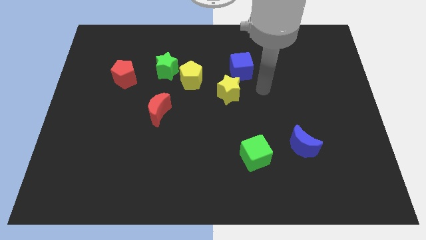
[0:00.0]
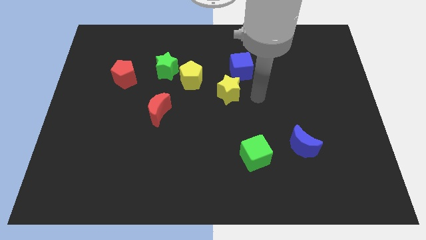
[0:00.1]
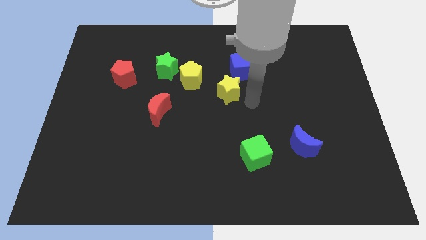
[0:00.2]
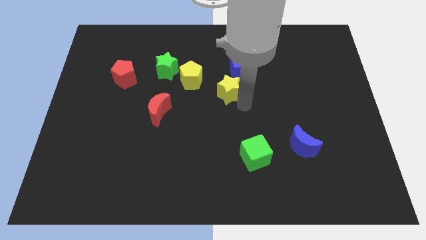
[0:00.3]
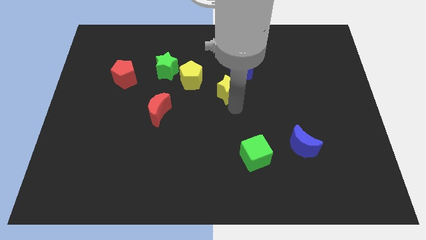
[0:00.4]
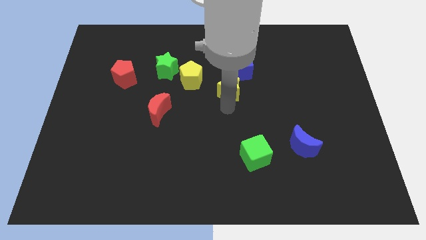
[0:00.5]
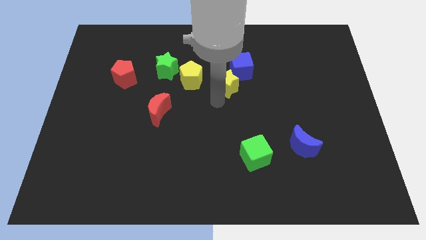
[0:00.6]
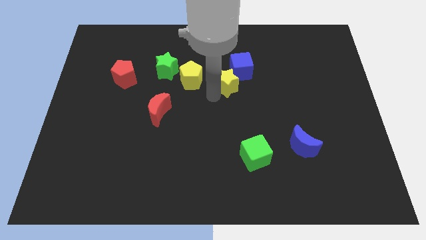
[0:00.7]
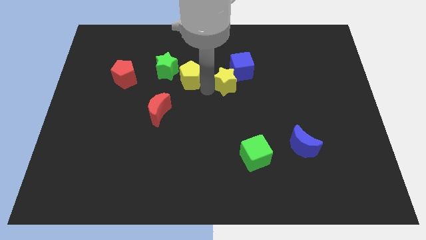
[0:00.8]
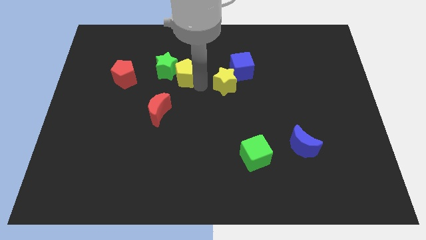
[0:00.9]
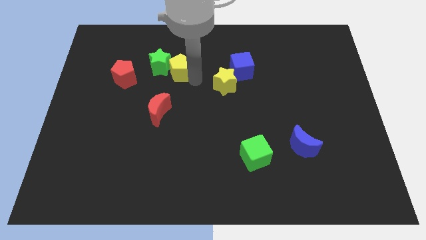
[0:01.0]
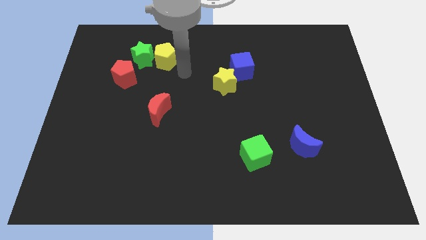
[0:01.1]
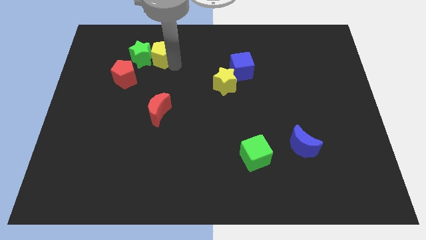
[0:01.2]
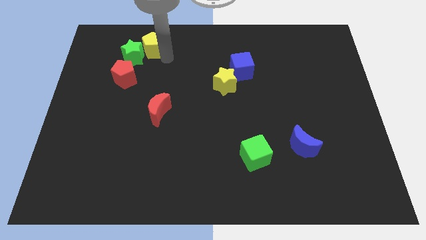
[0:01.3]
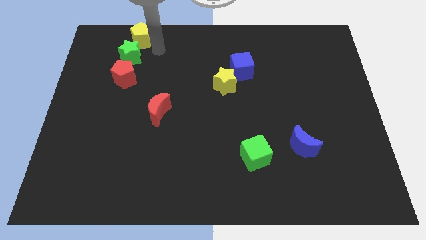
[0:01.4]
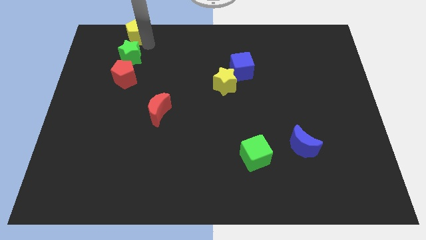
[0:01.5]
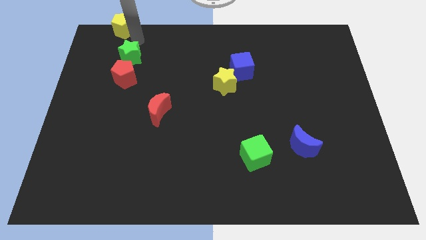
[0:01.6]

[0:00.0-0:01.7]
move the green star away from the yellow pentagon

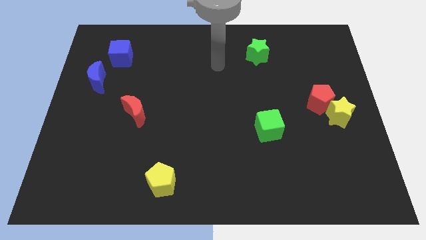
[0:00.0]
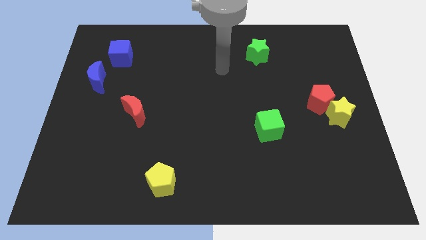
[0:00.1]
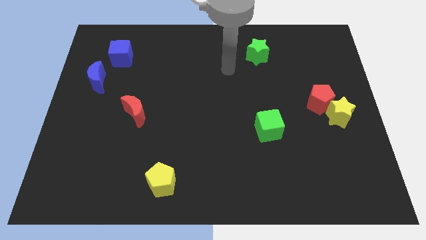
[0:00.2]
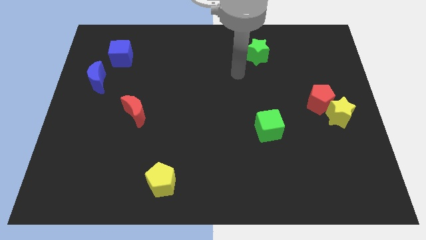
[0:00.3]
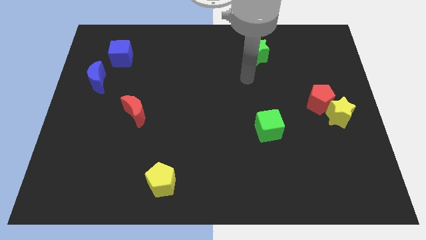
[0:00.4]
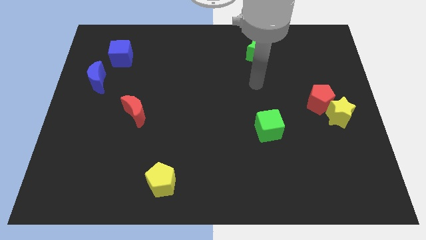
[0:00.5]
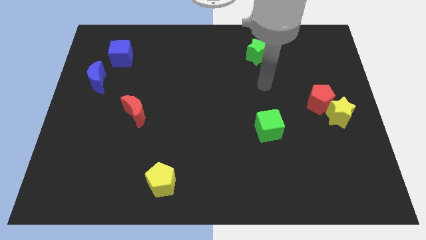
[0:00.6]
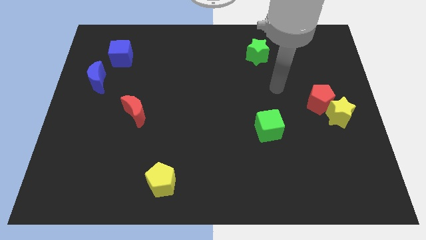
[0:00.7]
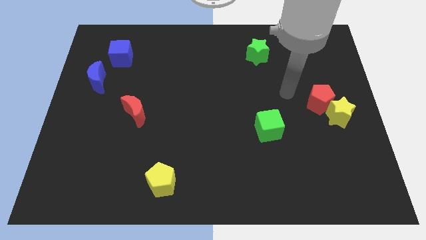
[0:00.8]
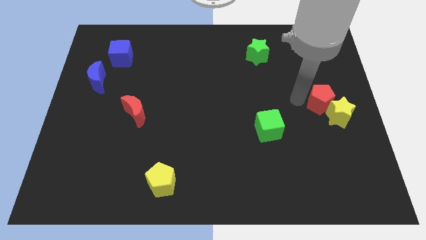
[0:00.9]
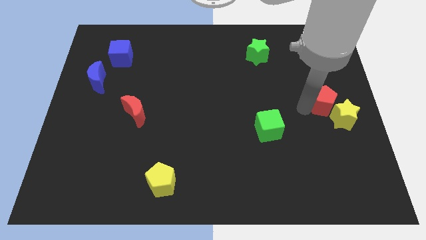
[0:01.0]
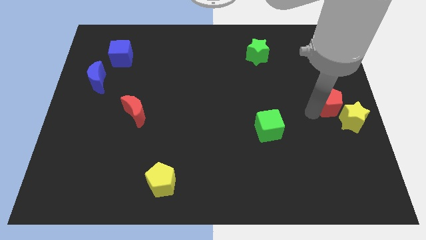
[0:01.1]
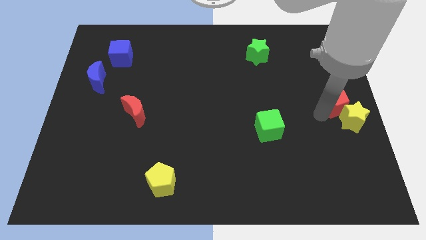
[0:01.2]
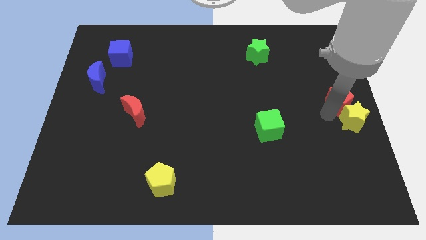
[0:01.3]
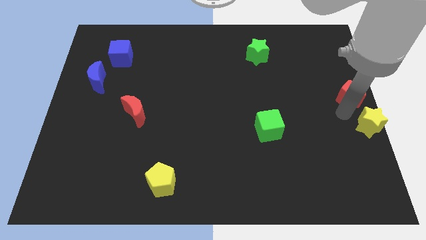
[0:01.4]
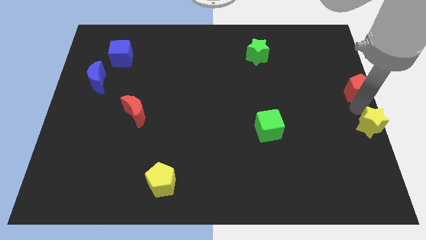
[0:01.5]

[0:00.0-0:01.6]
separate the red pentagon from the yellow star

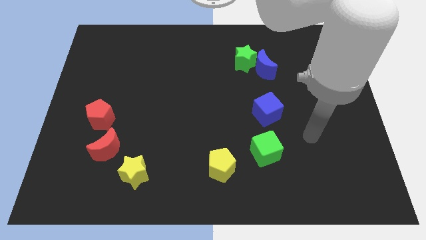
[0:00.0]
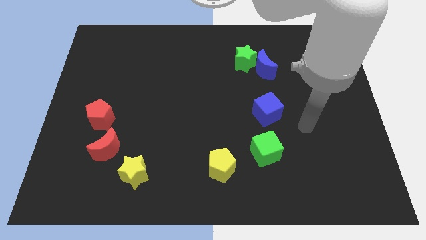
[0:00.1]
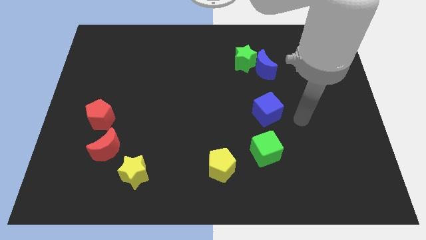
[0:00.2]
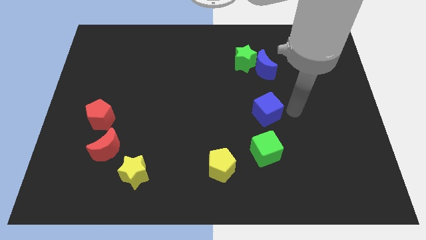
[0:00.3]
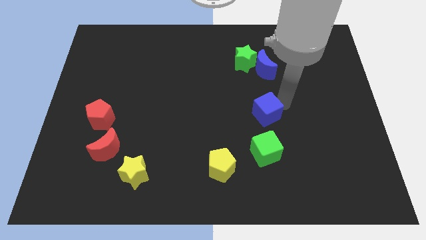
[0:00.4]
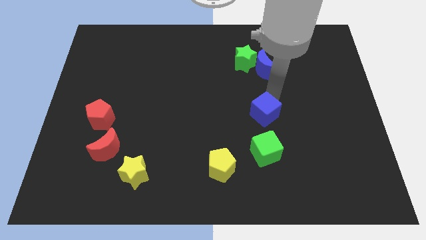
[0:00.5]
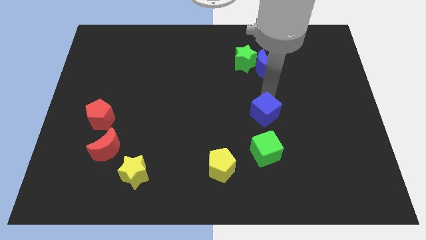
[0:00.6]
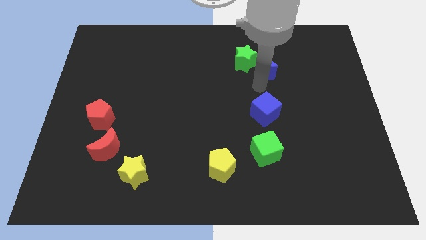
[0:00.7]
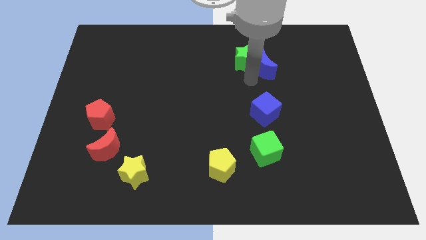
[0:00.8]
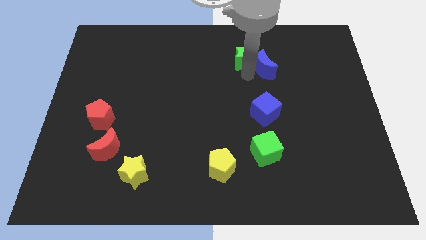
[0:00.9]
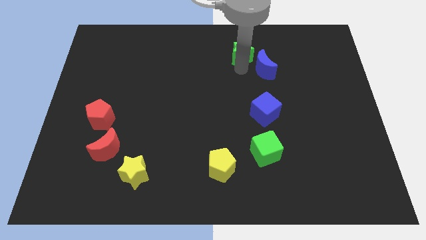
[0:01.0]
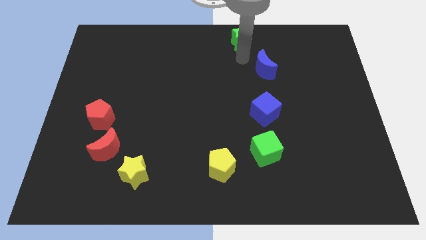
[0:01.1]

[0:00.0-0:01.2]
separate the blue moon from the green star

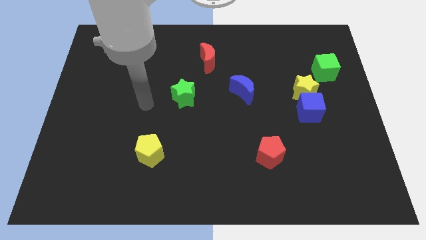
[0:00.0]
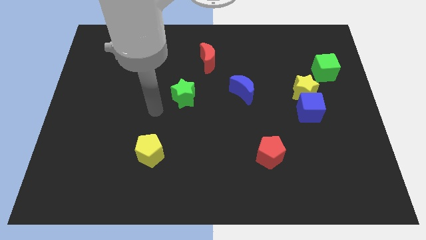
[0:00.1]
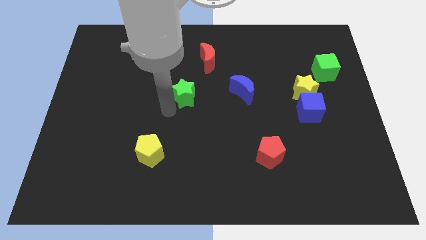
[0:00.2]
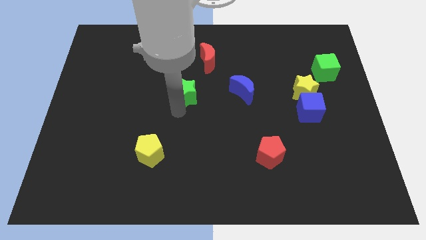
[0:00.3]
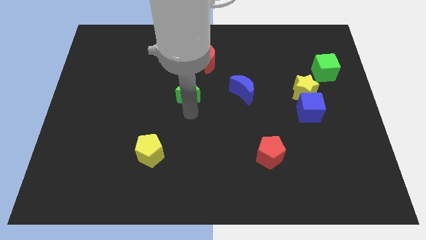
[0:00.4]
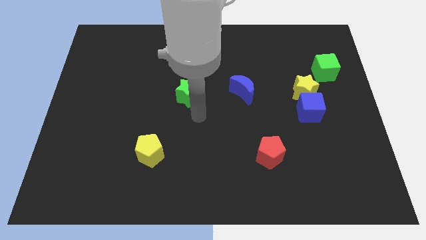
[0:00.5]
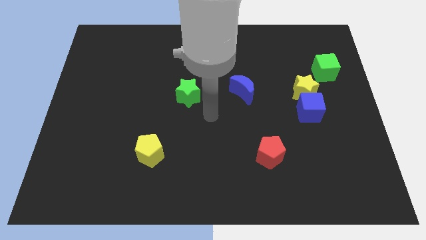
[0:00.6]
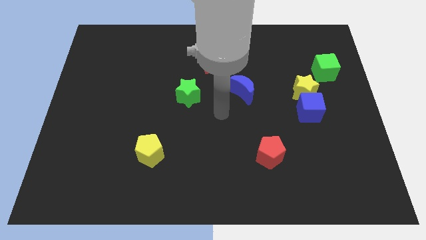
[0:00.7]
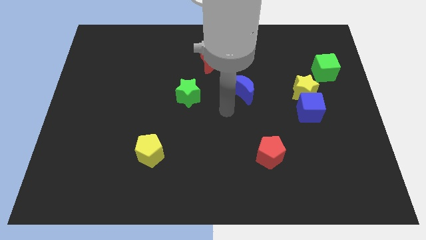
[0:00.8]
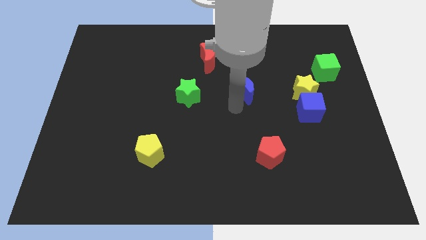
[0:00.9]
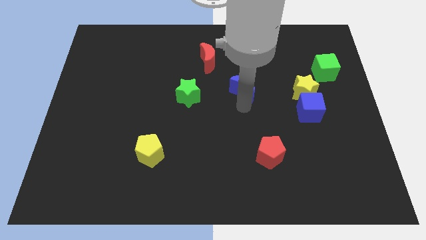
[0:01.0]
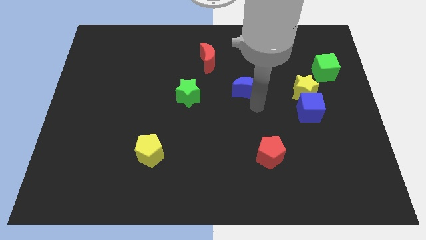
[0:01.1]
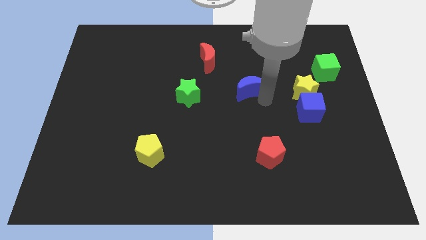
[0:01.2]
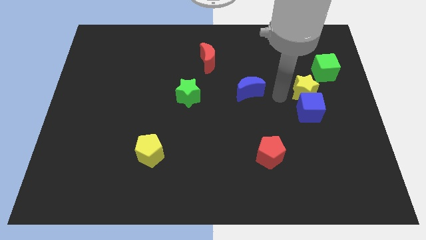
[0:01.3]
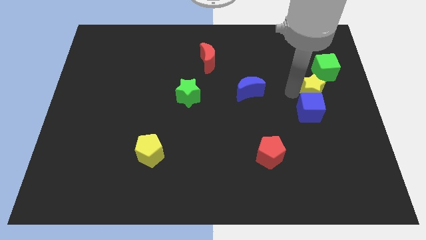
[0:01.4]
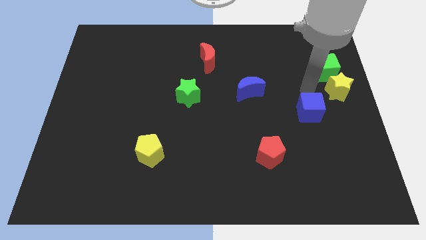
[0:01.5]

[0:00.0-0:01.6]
pull the blue cube apart from the yellow star

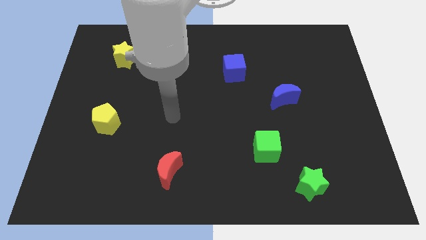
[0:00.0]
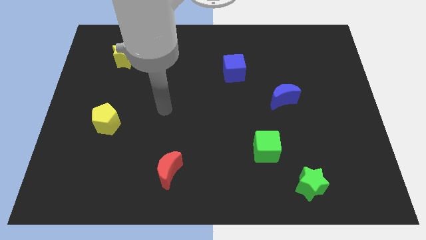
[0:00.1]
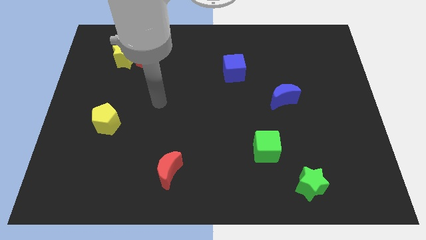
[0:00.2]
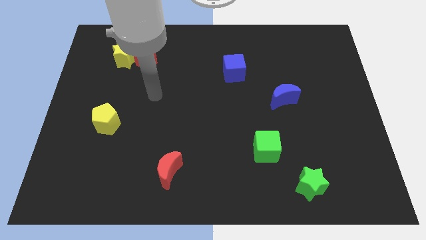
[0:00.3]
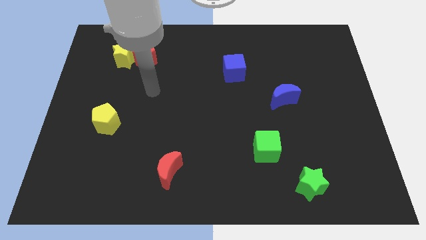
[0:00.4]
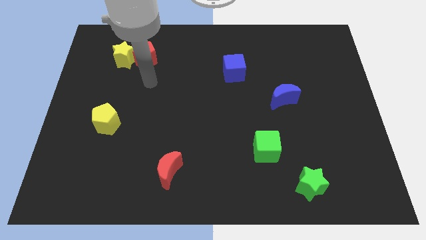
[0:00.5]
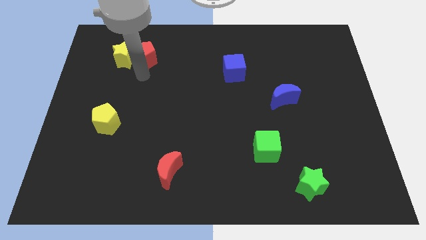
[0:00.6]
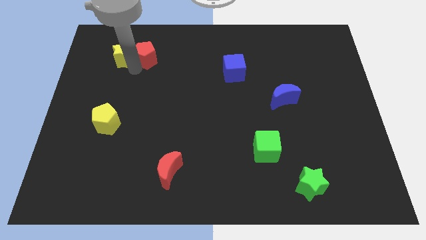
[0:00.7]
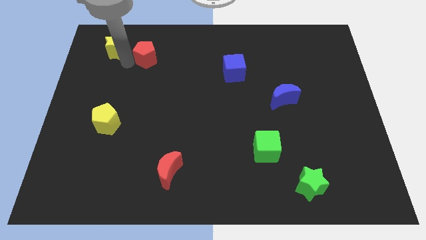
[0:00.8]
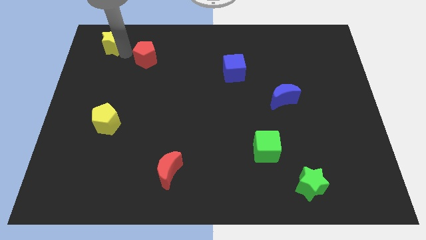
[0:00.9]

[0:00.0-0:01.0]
pull the red pentagon apart from the yellow star

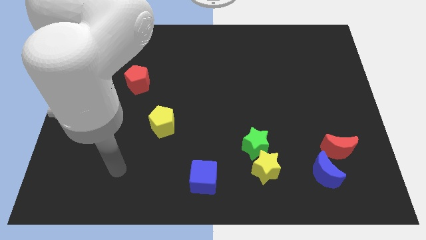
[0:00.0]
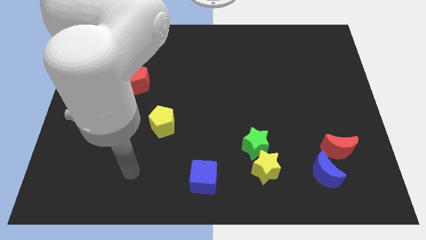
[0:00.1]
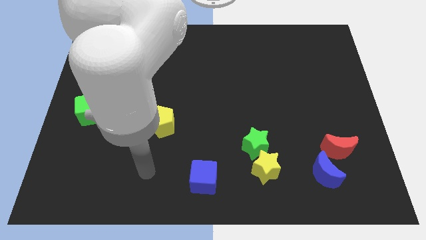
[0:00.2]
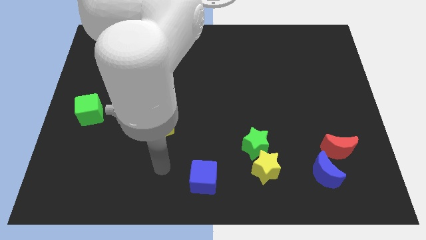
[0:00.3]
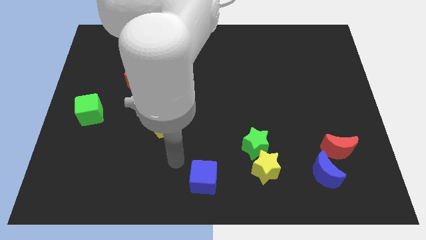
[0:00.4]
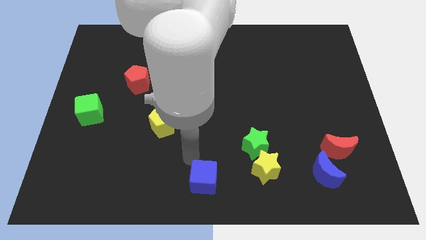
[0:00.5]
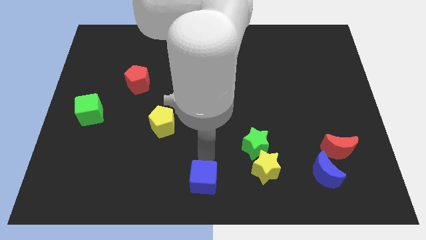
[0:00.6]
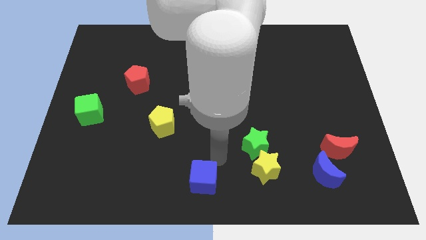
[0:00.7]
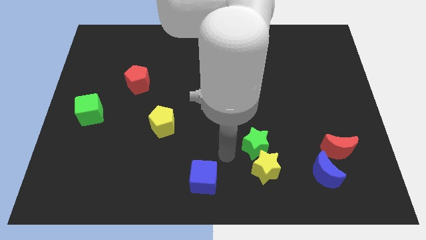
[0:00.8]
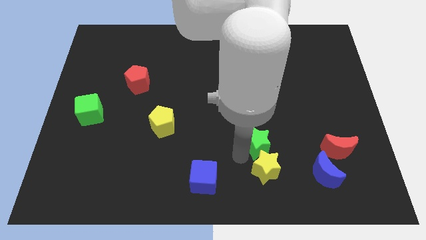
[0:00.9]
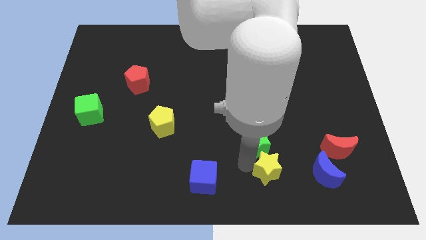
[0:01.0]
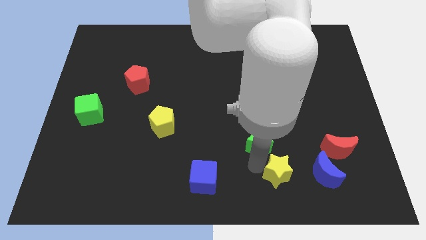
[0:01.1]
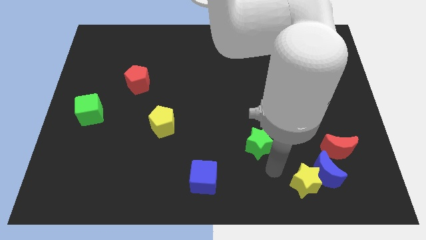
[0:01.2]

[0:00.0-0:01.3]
move the green star away from the yellow star

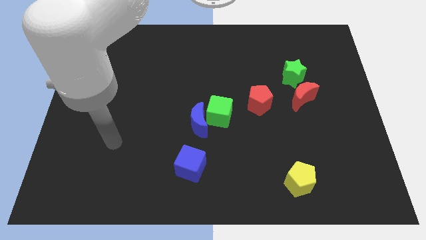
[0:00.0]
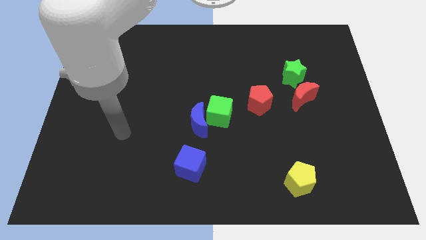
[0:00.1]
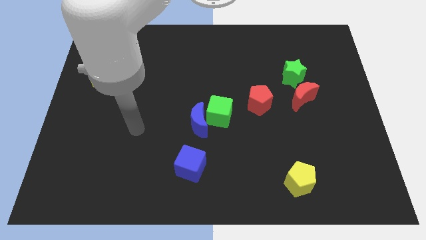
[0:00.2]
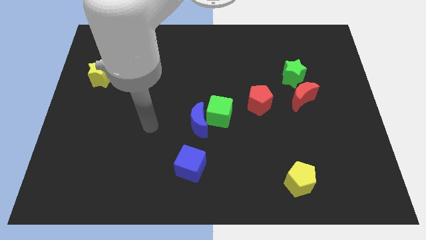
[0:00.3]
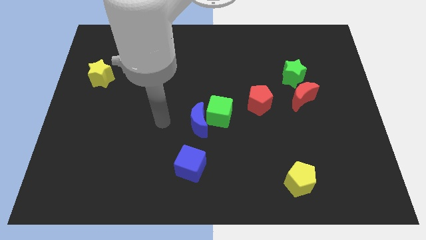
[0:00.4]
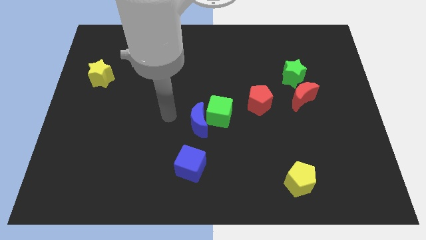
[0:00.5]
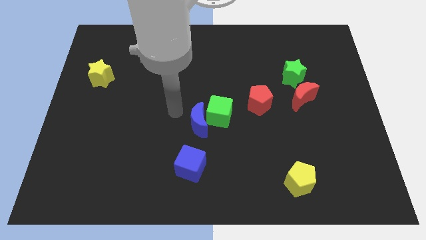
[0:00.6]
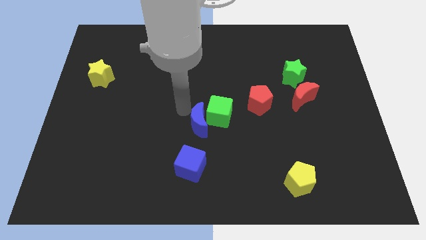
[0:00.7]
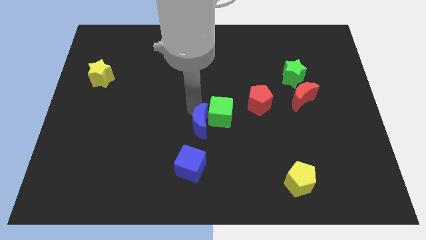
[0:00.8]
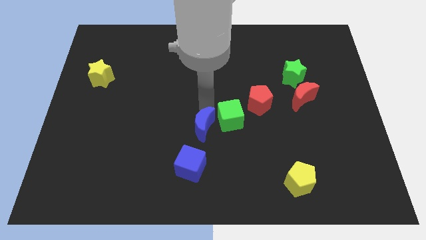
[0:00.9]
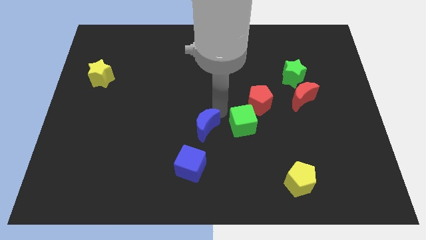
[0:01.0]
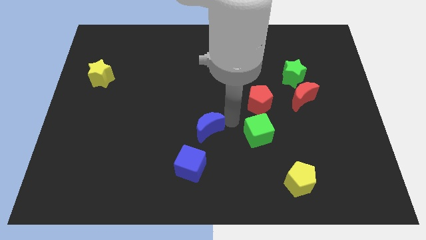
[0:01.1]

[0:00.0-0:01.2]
move the blue moon away from the green cube
